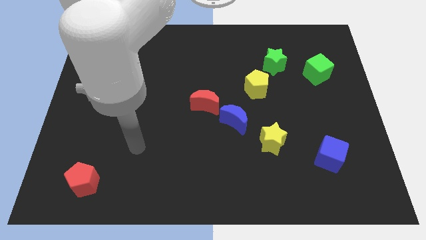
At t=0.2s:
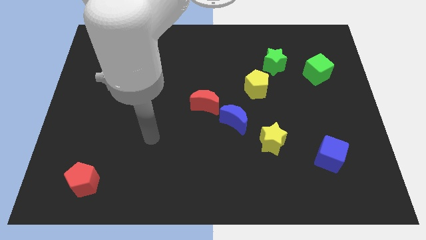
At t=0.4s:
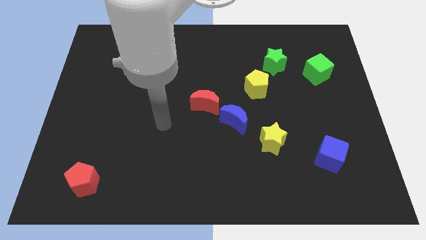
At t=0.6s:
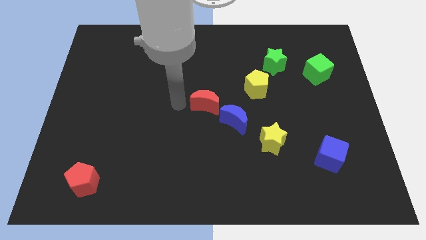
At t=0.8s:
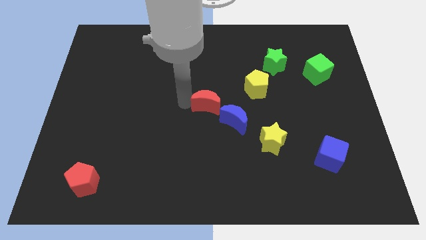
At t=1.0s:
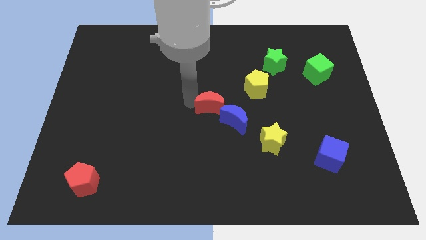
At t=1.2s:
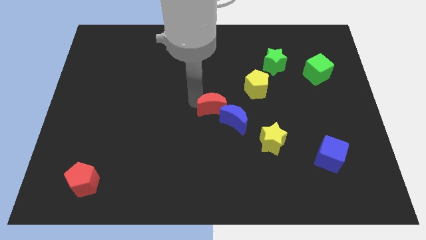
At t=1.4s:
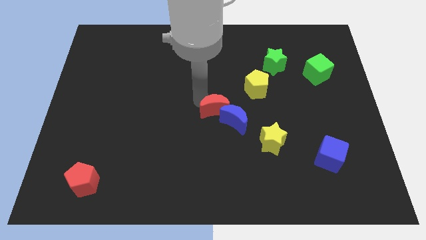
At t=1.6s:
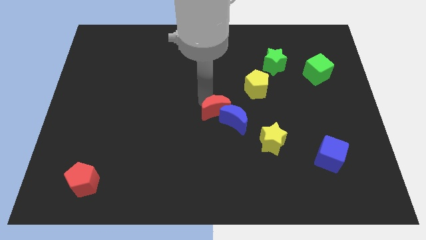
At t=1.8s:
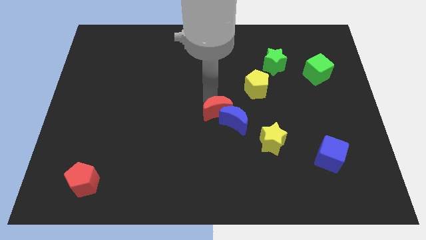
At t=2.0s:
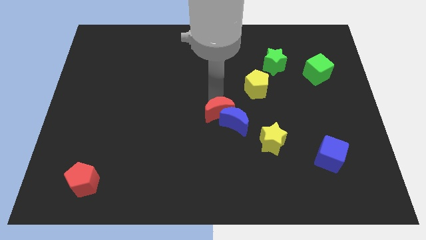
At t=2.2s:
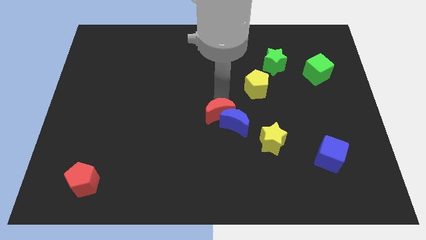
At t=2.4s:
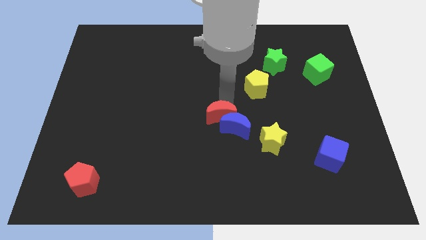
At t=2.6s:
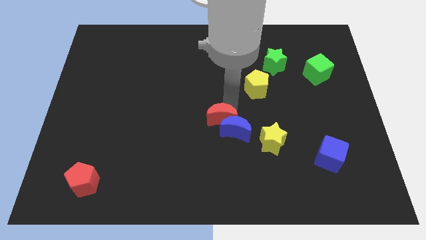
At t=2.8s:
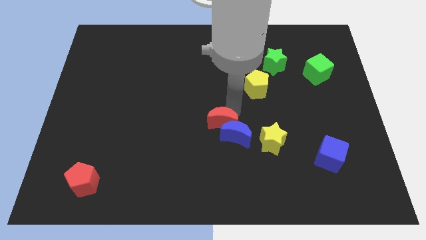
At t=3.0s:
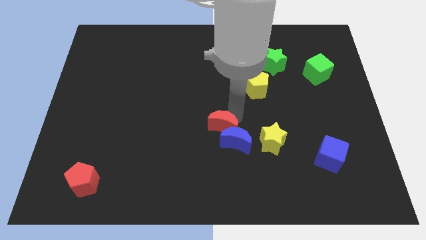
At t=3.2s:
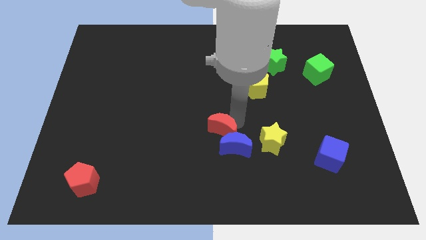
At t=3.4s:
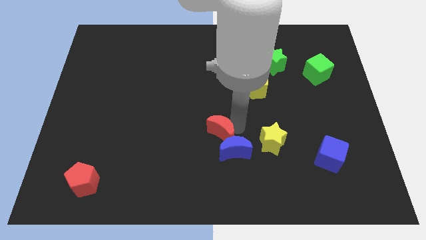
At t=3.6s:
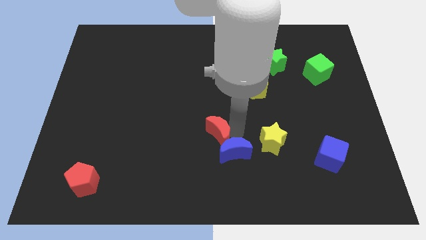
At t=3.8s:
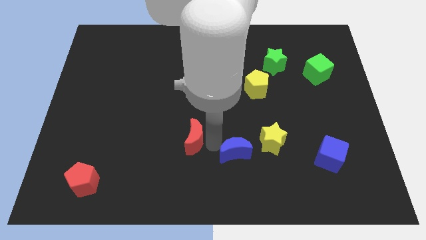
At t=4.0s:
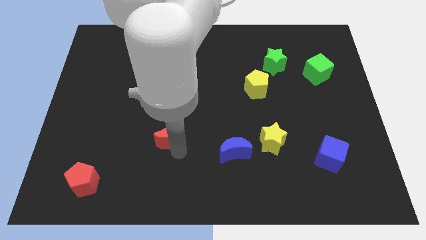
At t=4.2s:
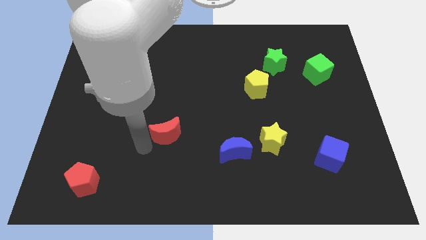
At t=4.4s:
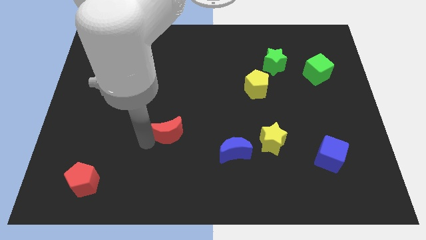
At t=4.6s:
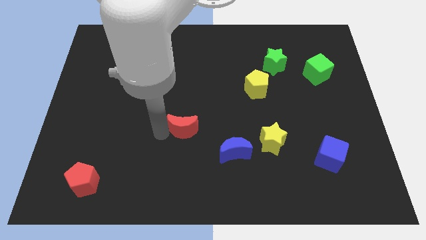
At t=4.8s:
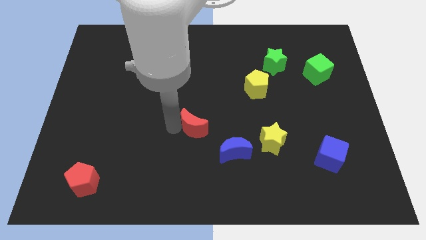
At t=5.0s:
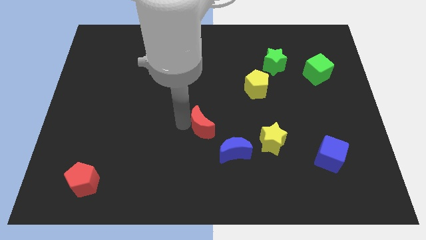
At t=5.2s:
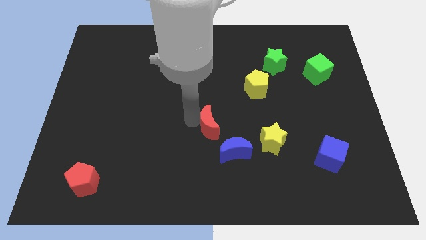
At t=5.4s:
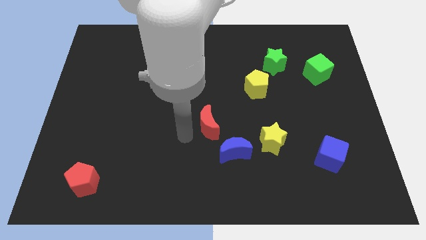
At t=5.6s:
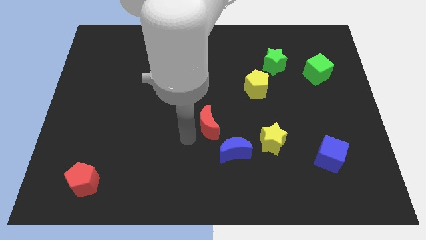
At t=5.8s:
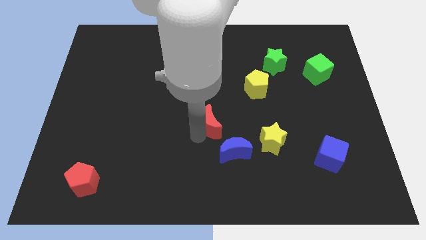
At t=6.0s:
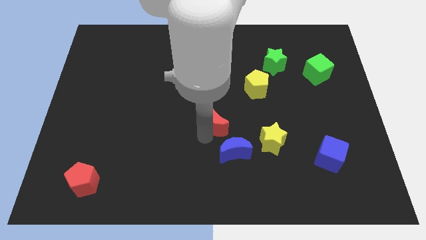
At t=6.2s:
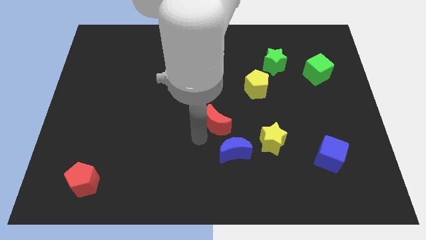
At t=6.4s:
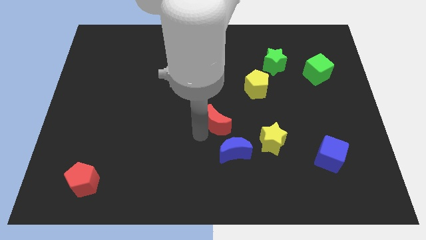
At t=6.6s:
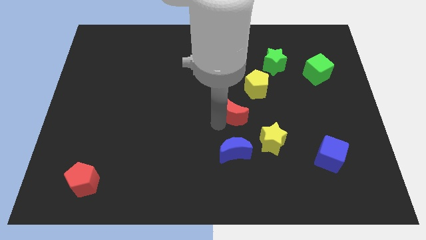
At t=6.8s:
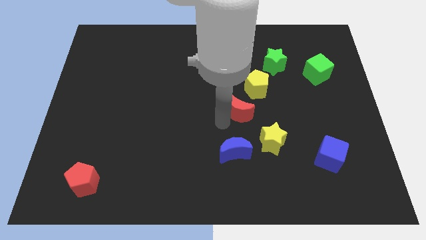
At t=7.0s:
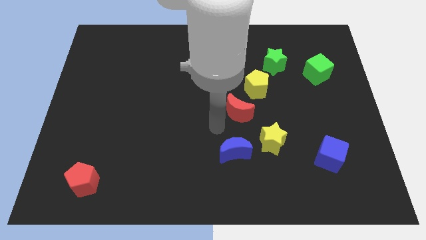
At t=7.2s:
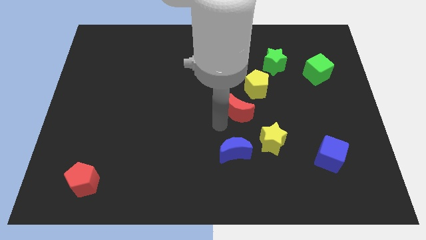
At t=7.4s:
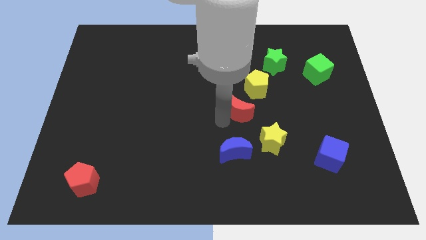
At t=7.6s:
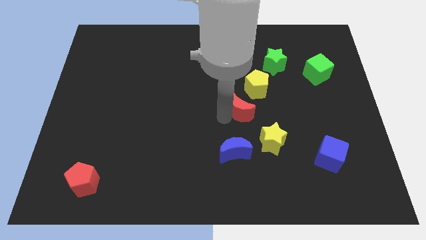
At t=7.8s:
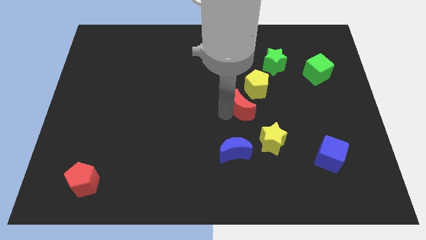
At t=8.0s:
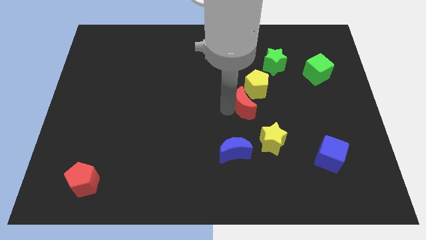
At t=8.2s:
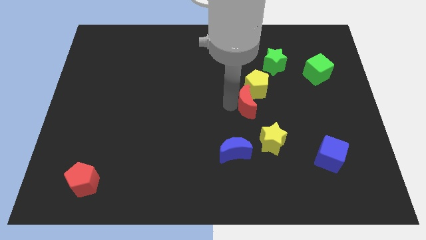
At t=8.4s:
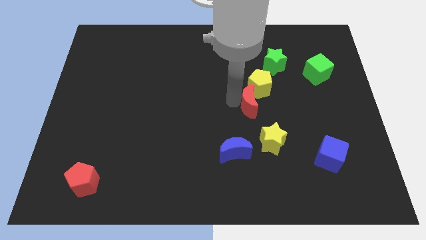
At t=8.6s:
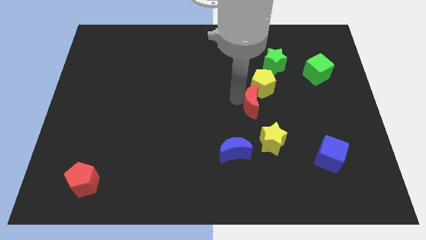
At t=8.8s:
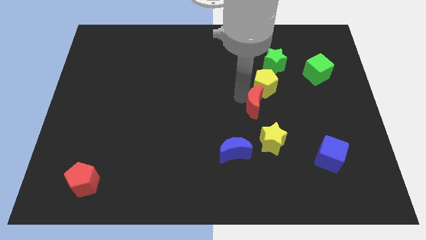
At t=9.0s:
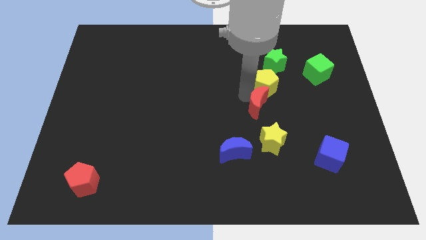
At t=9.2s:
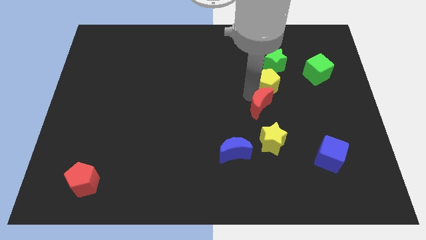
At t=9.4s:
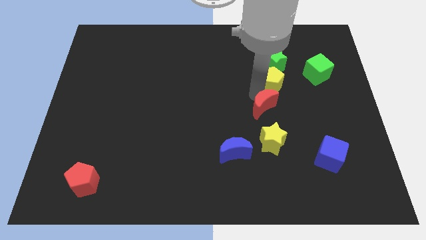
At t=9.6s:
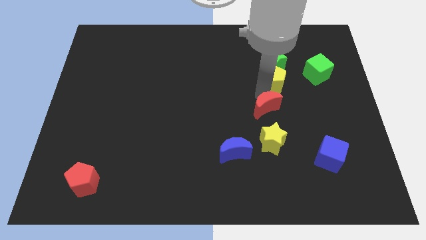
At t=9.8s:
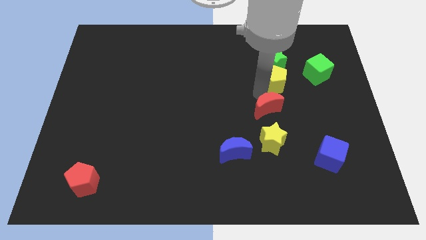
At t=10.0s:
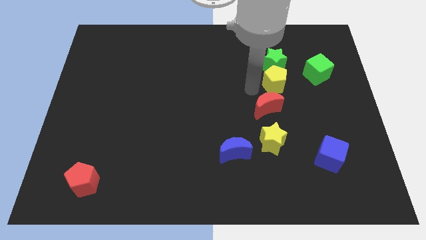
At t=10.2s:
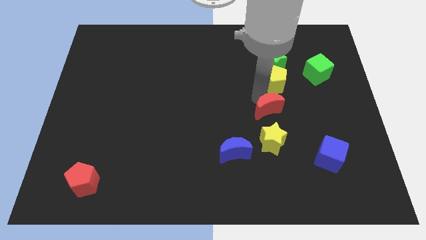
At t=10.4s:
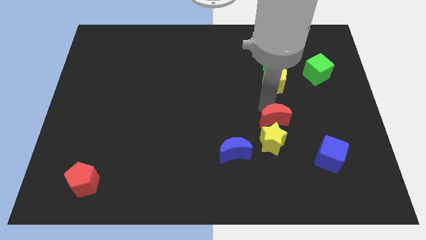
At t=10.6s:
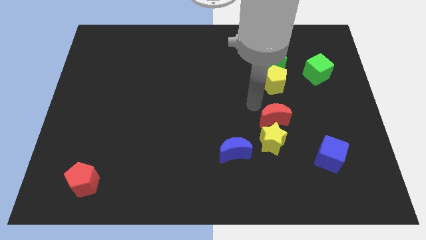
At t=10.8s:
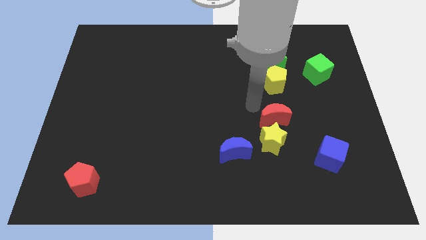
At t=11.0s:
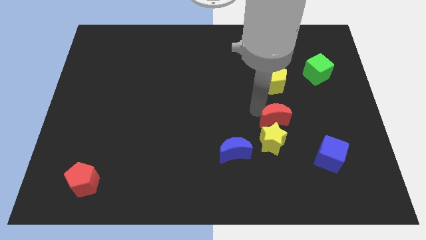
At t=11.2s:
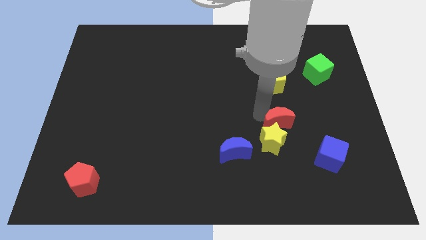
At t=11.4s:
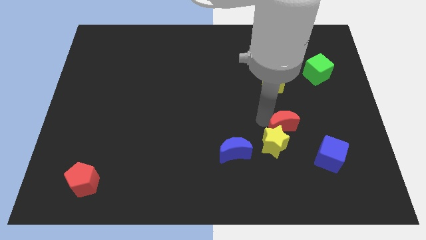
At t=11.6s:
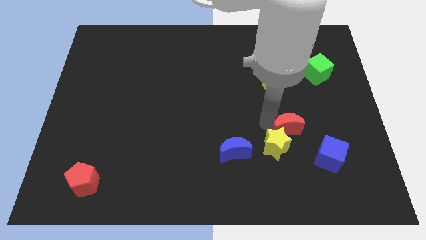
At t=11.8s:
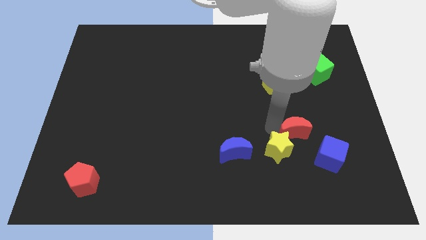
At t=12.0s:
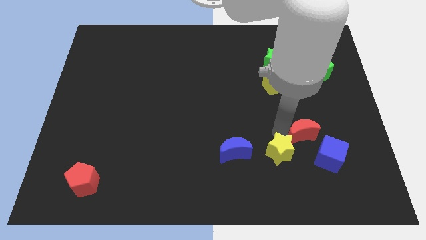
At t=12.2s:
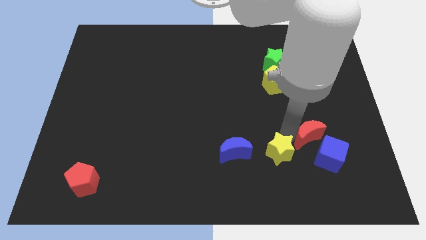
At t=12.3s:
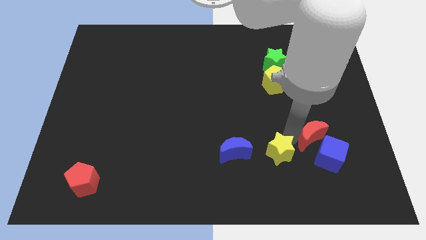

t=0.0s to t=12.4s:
put the red moon close to the blue cube

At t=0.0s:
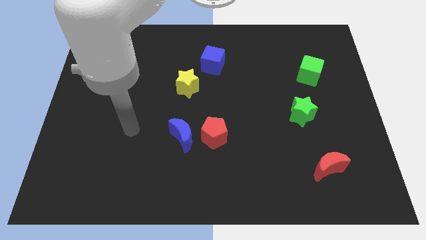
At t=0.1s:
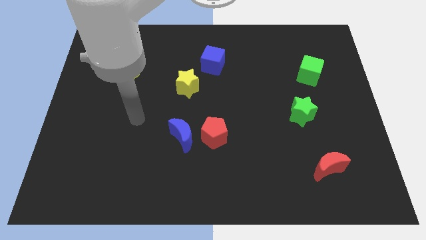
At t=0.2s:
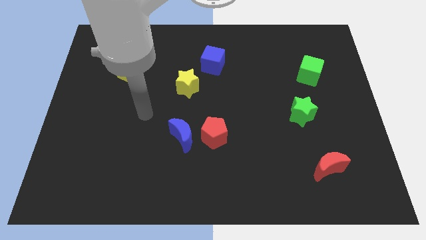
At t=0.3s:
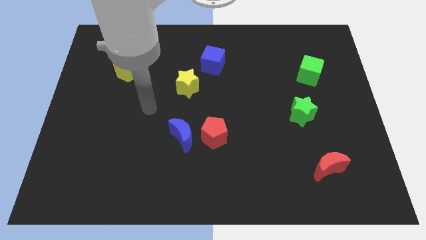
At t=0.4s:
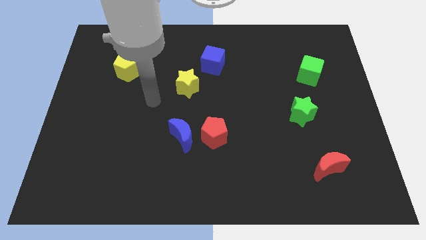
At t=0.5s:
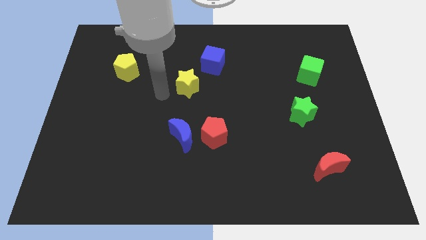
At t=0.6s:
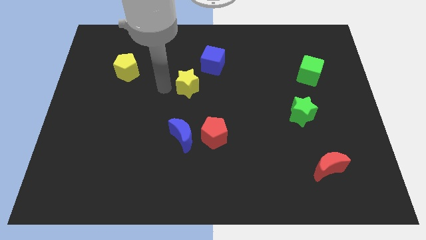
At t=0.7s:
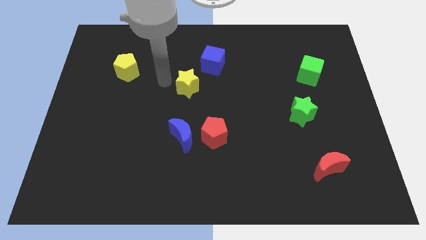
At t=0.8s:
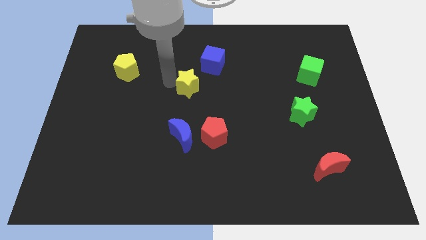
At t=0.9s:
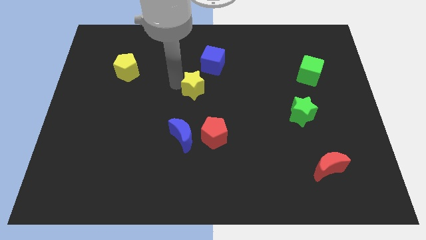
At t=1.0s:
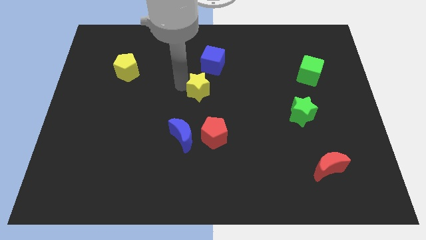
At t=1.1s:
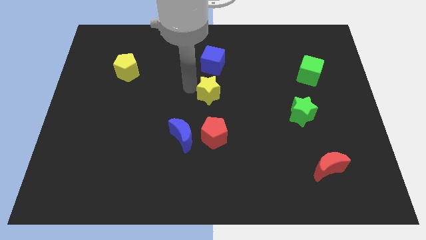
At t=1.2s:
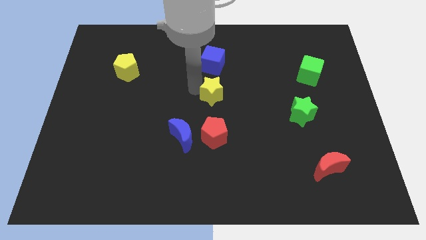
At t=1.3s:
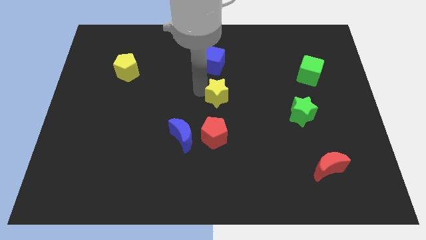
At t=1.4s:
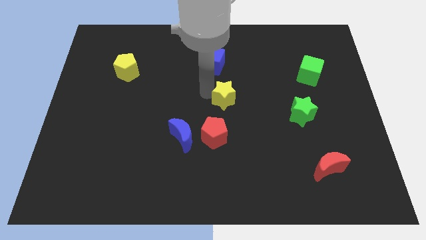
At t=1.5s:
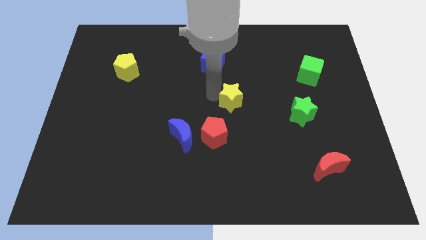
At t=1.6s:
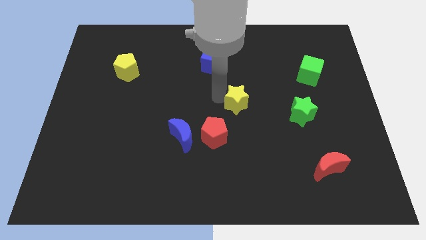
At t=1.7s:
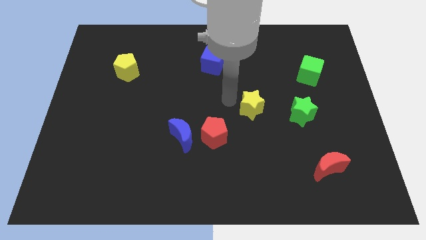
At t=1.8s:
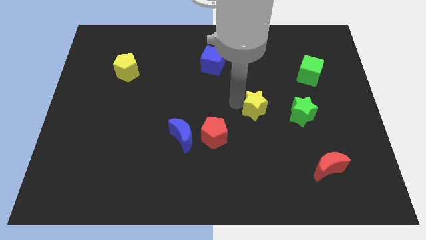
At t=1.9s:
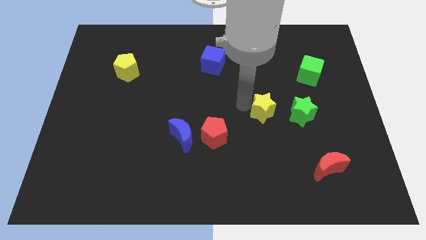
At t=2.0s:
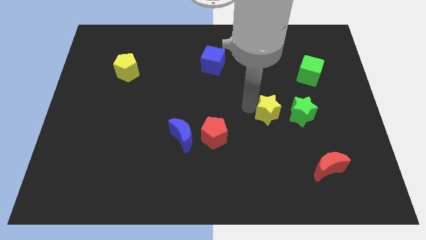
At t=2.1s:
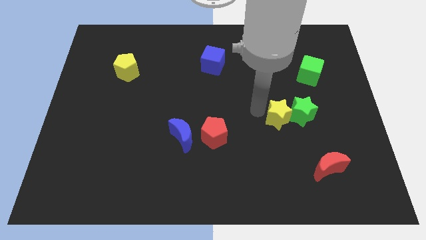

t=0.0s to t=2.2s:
put the yellow star close to the green star
